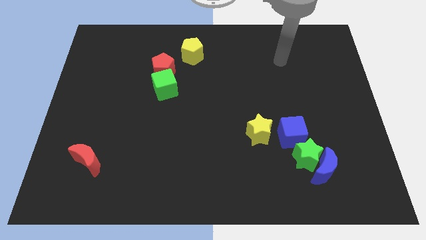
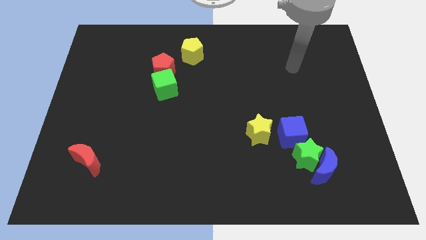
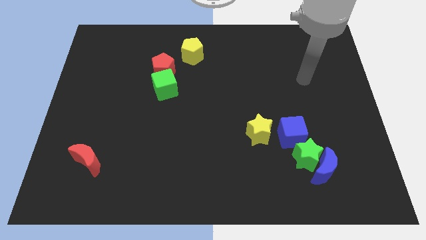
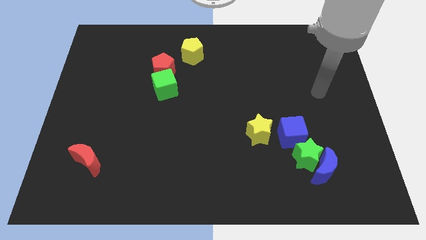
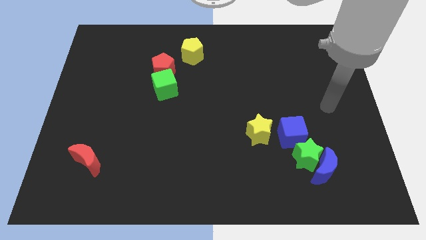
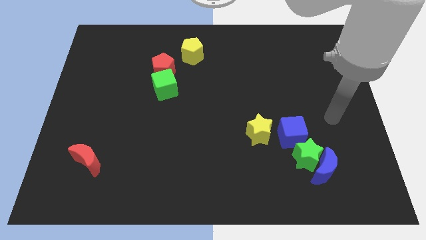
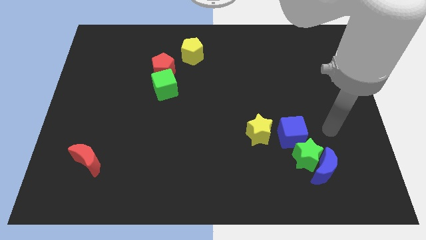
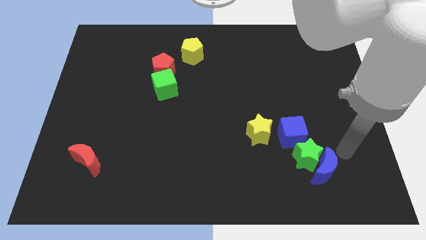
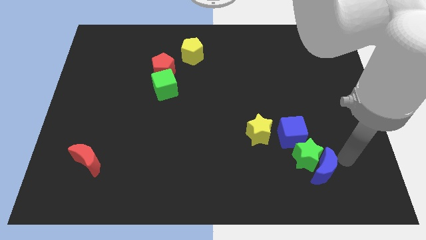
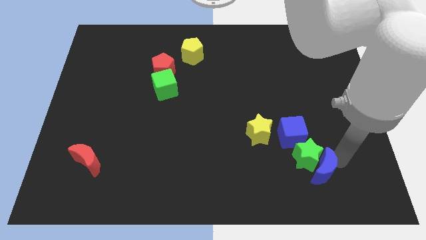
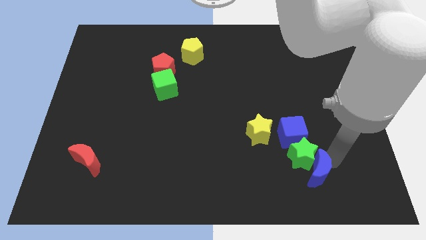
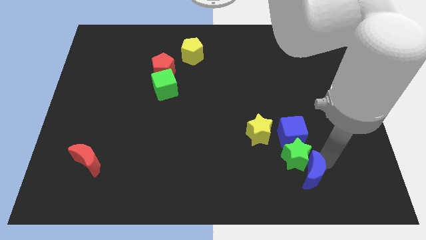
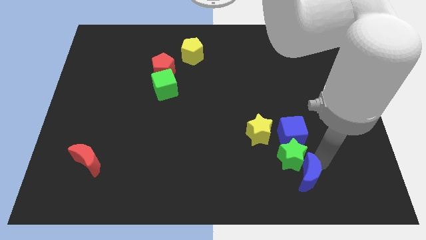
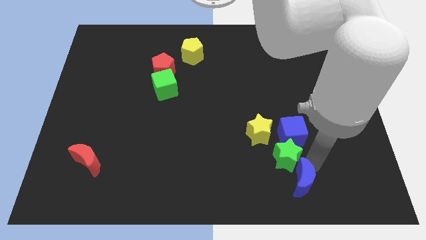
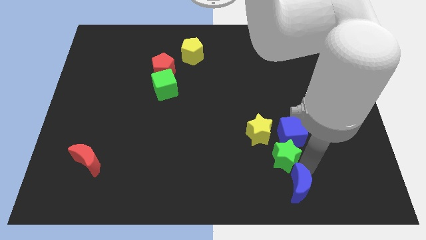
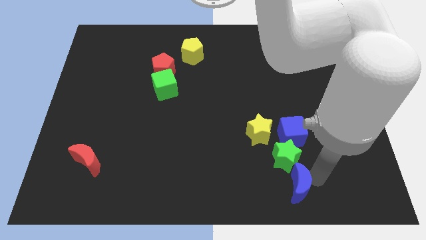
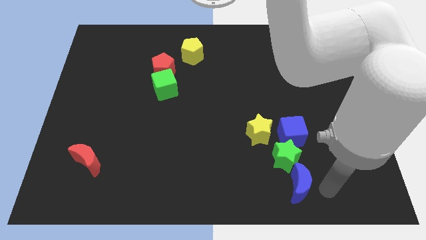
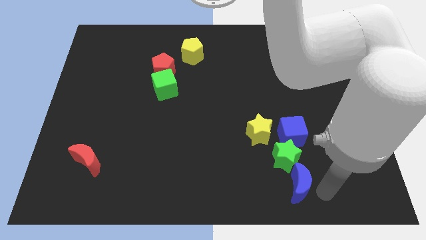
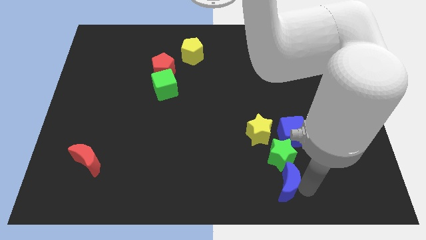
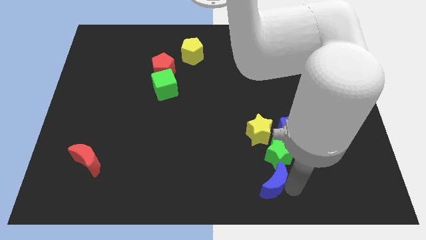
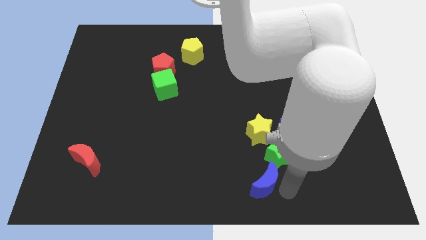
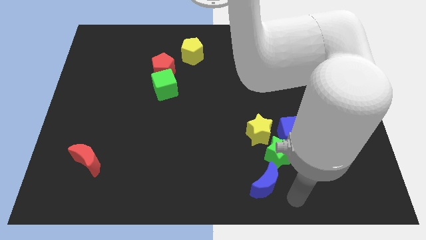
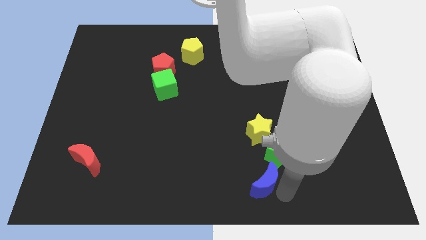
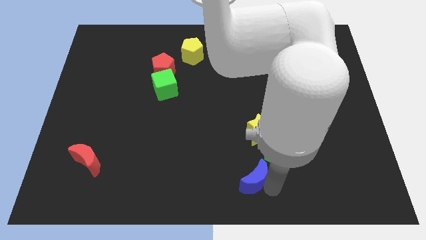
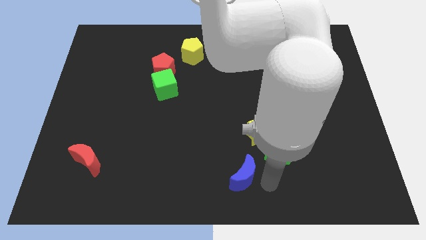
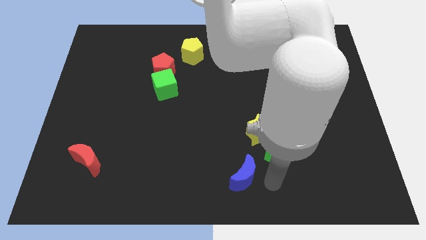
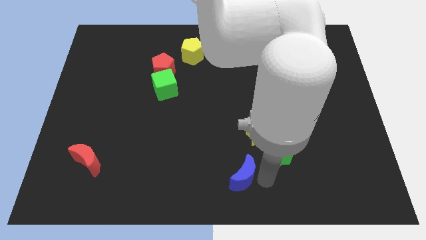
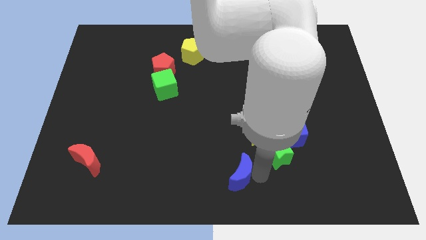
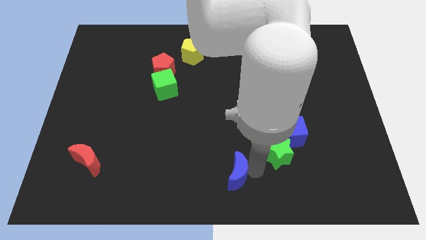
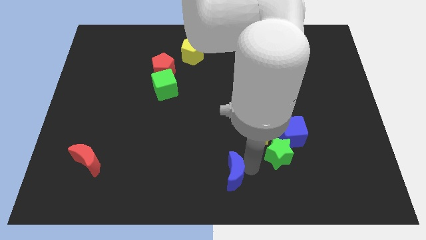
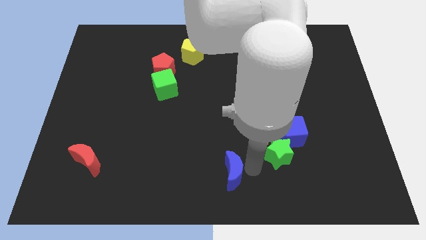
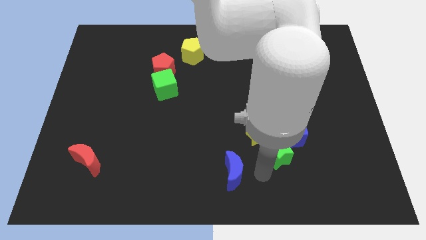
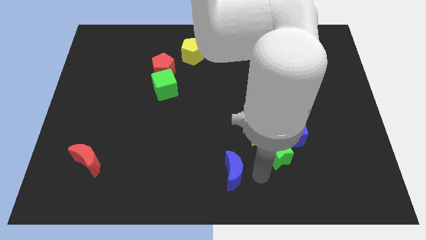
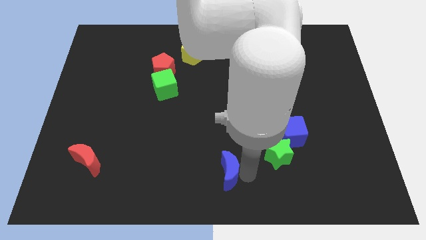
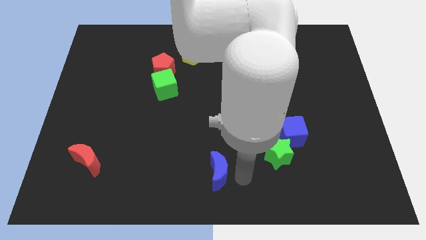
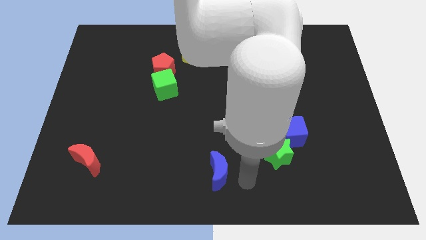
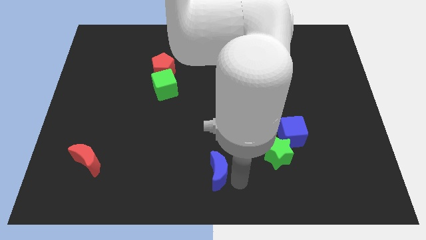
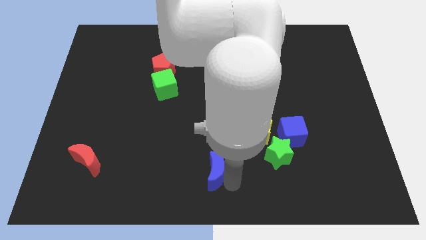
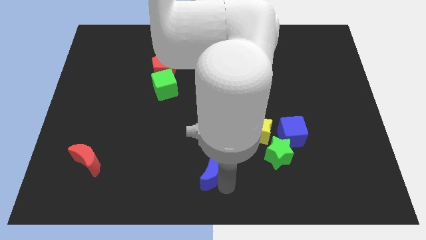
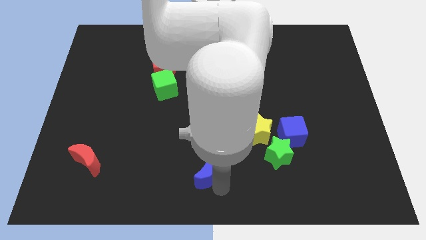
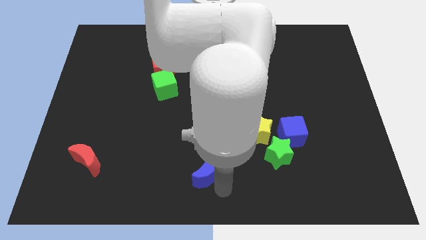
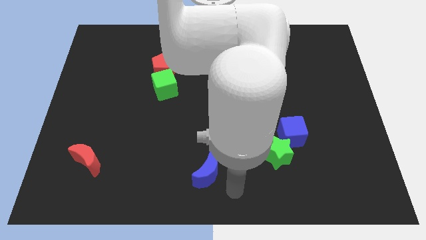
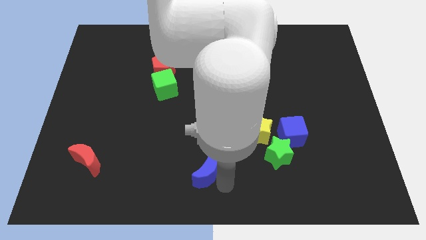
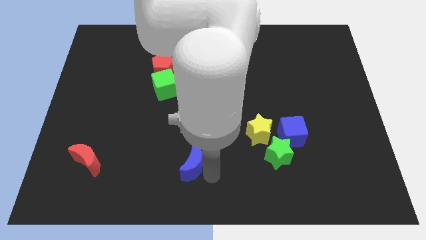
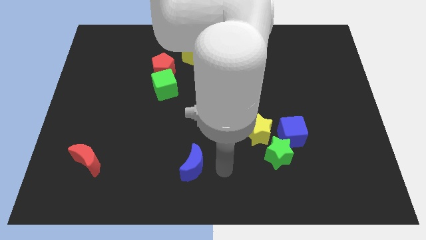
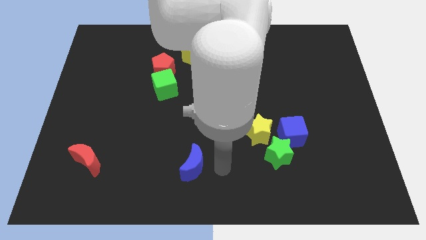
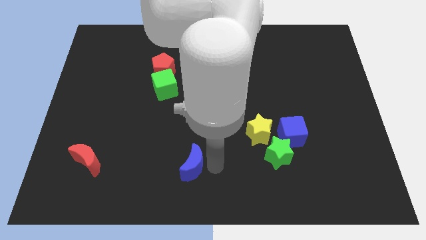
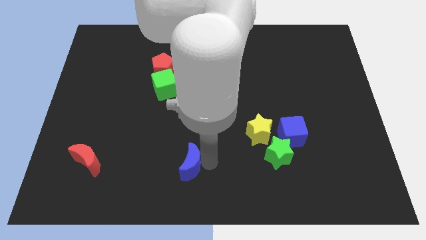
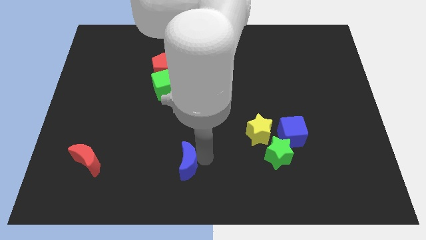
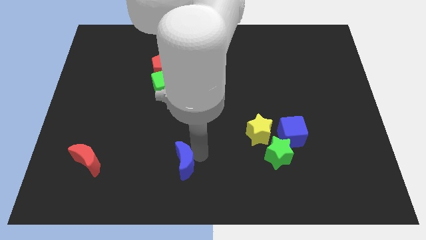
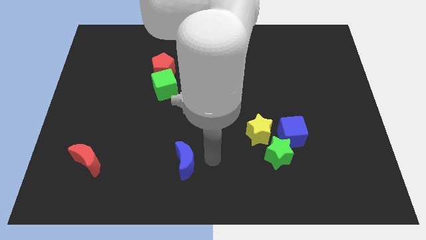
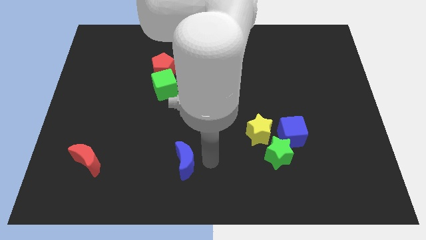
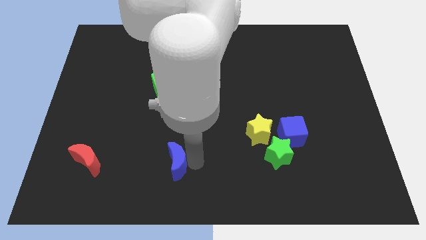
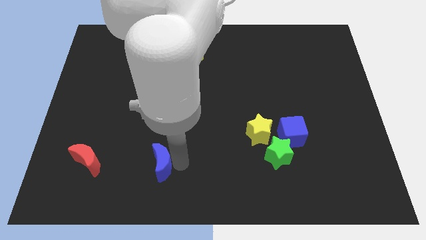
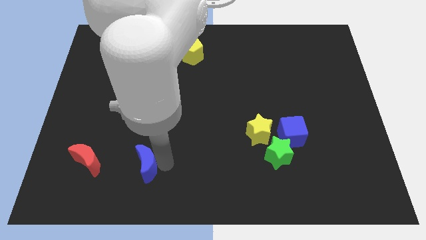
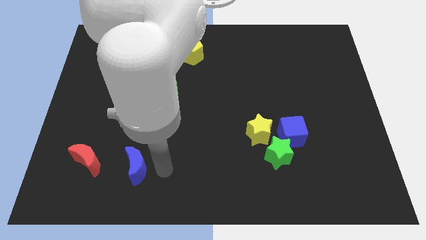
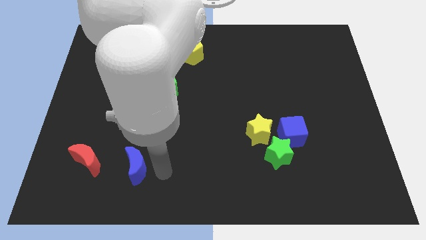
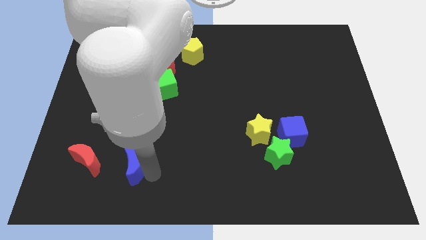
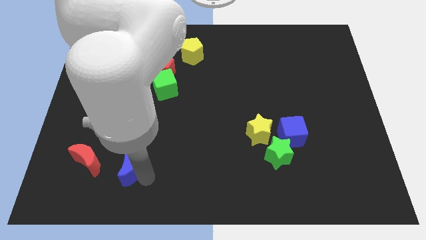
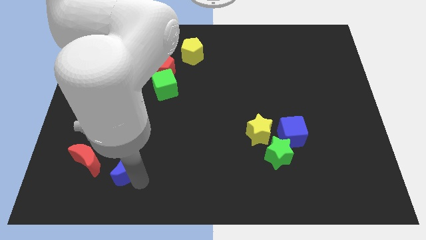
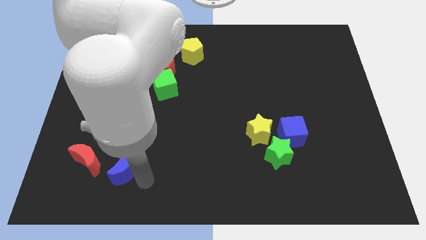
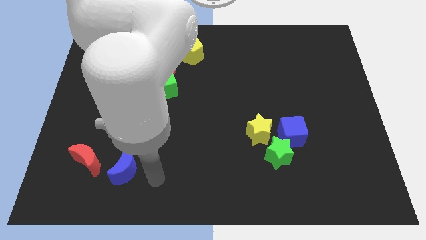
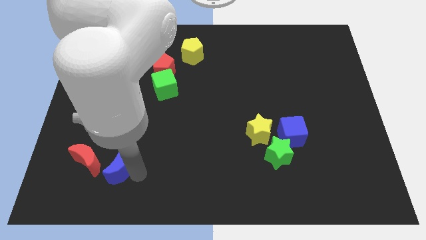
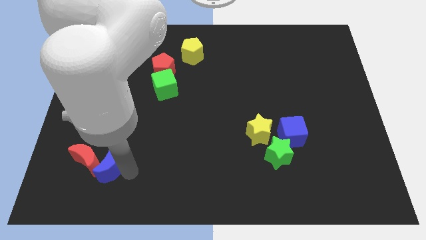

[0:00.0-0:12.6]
move the blue moon towards the red moon

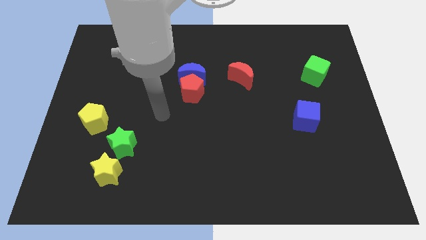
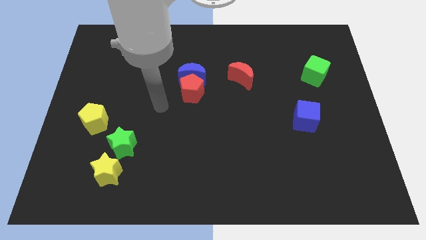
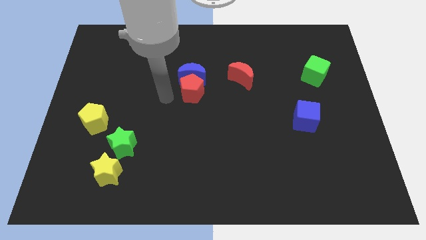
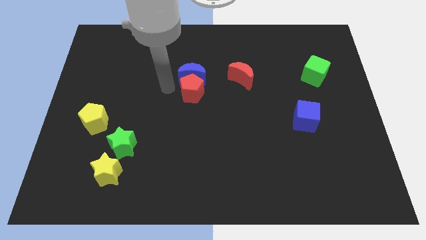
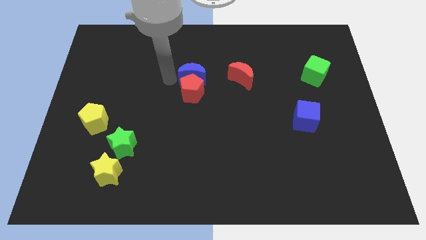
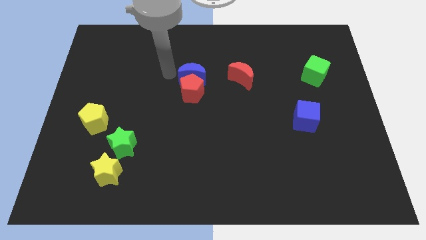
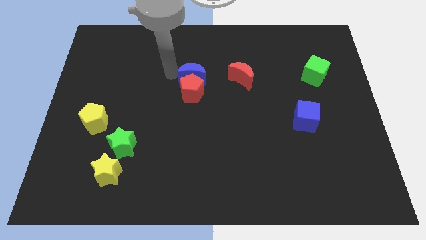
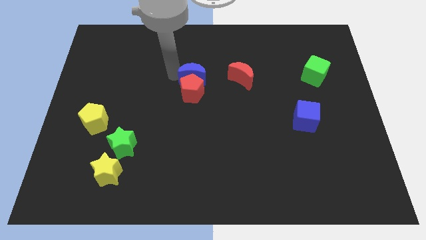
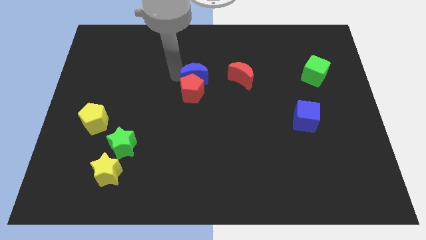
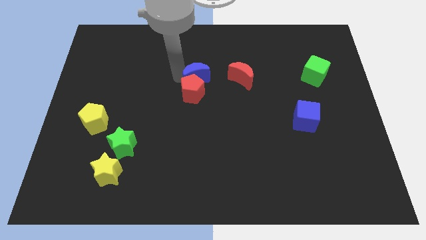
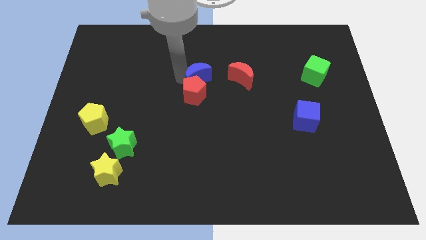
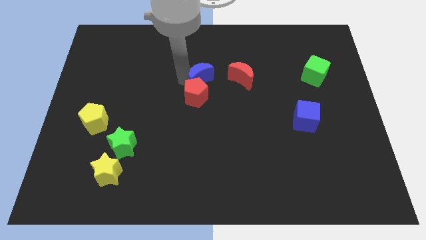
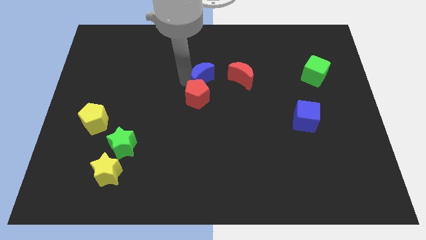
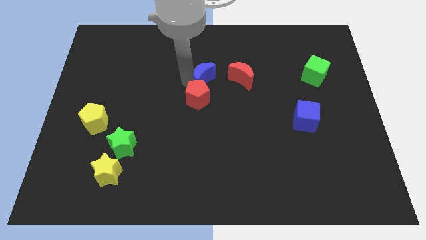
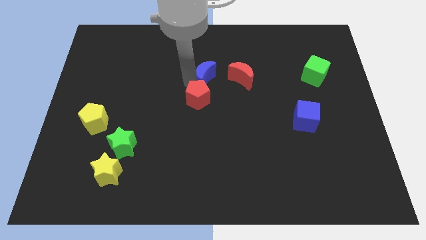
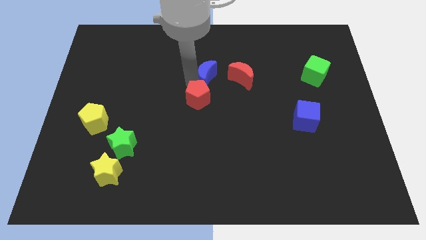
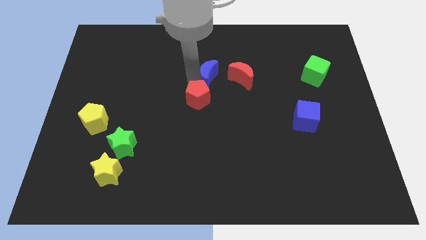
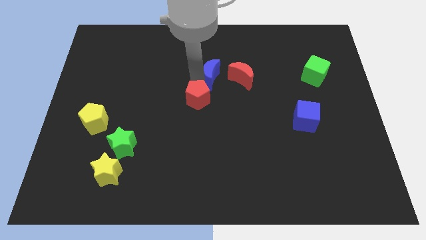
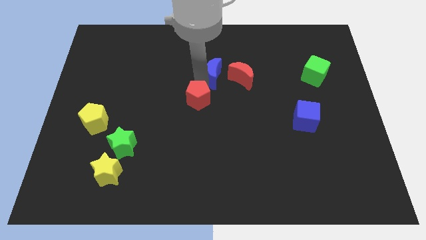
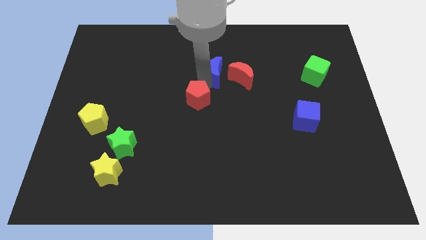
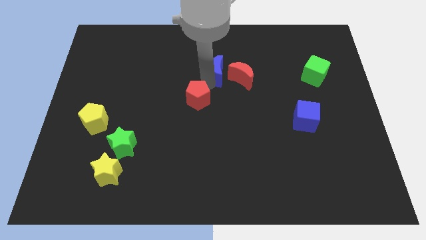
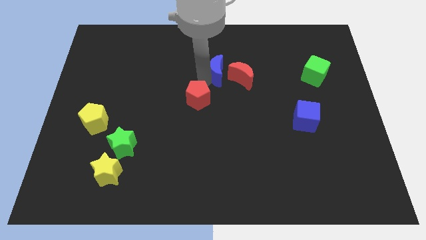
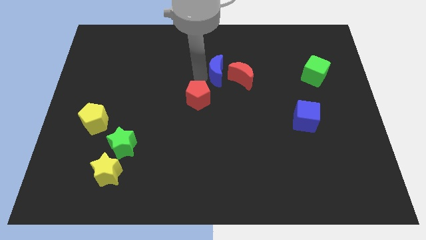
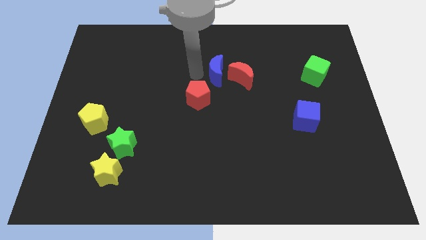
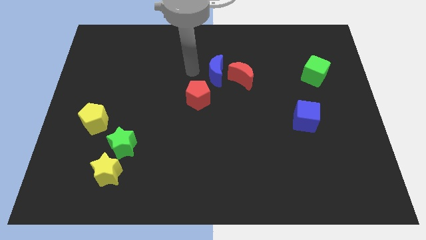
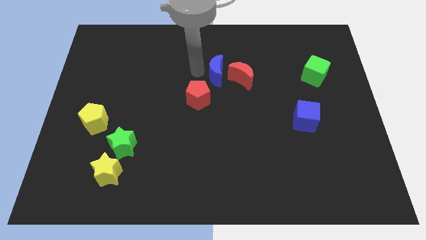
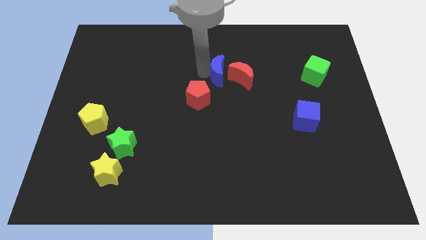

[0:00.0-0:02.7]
push the blue moon close to the red moon
